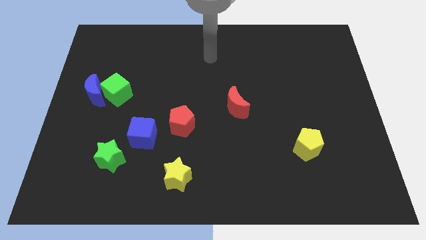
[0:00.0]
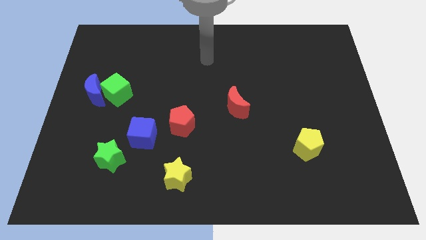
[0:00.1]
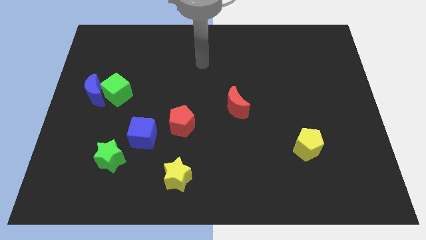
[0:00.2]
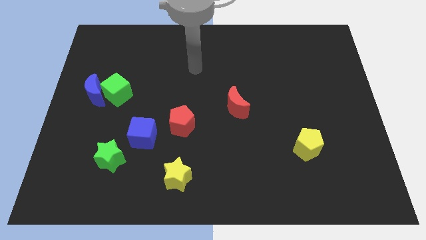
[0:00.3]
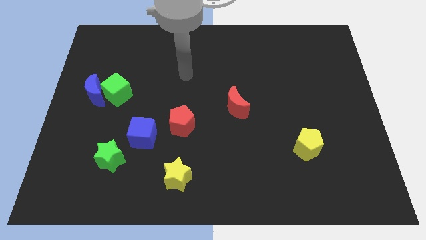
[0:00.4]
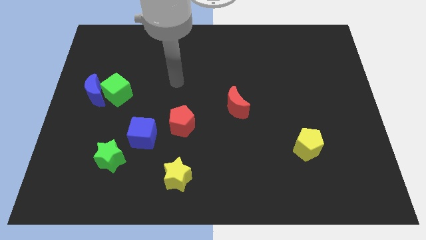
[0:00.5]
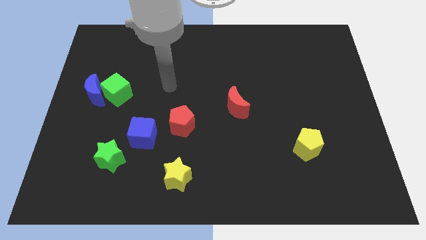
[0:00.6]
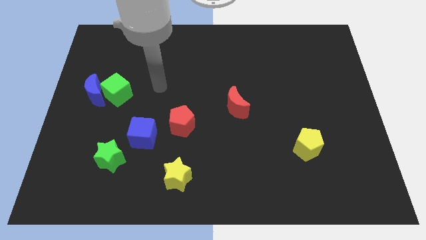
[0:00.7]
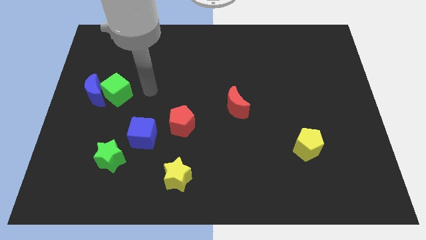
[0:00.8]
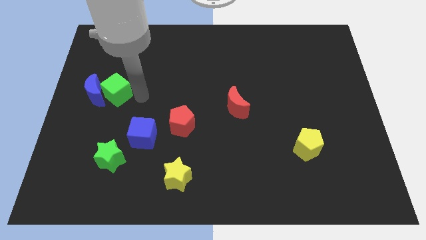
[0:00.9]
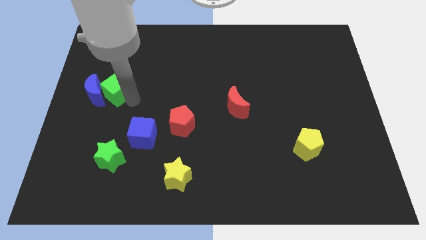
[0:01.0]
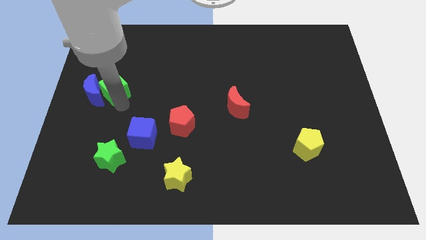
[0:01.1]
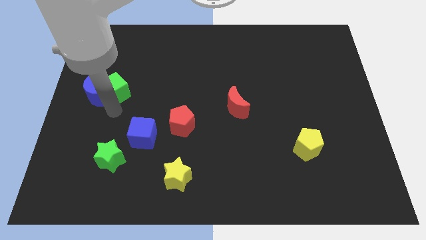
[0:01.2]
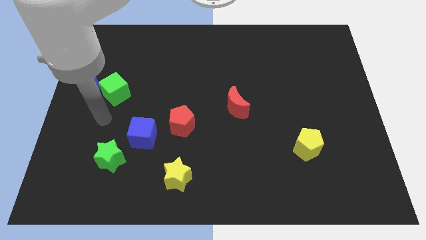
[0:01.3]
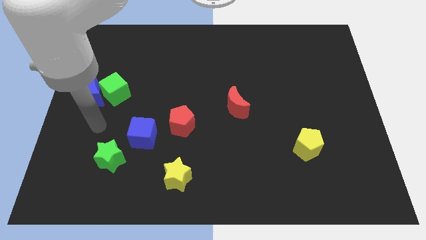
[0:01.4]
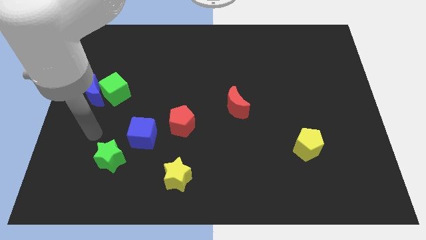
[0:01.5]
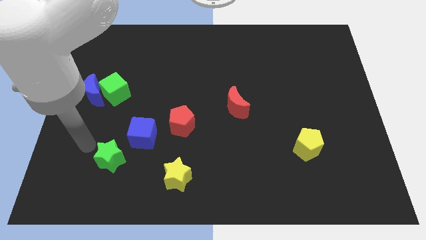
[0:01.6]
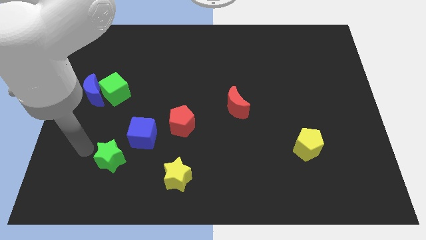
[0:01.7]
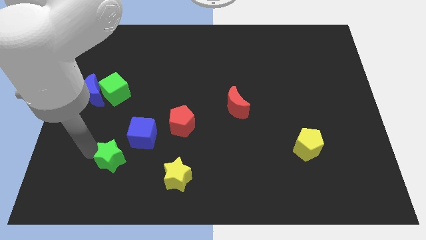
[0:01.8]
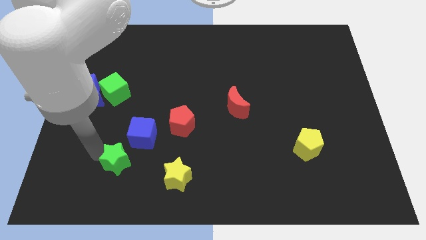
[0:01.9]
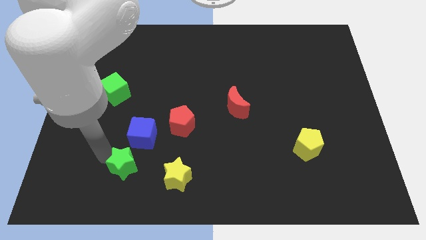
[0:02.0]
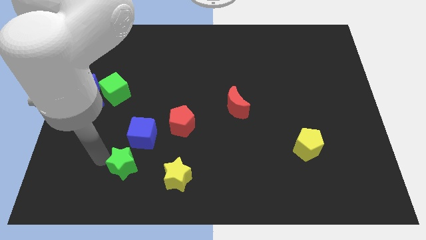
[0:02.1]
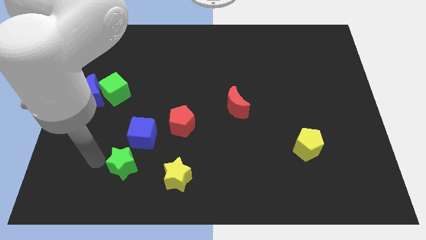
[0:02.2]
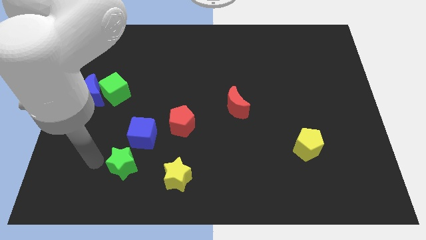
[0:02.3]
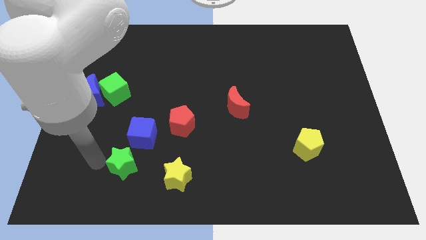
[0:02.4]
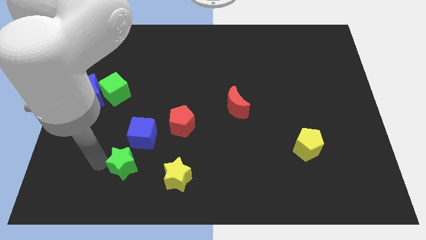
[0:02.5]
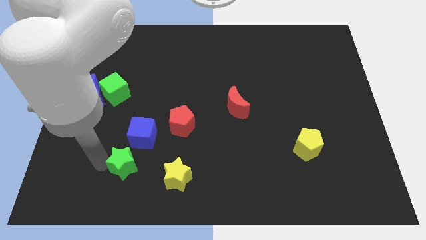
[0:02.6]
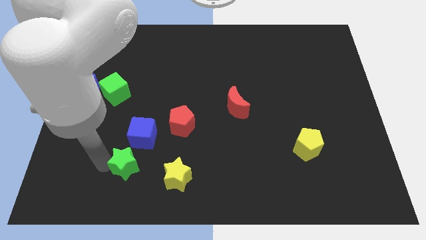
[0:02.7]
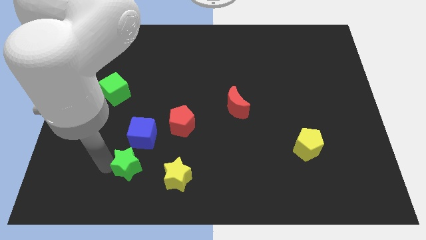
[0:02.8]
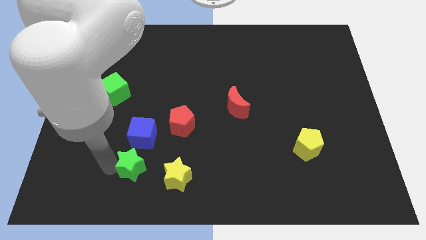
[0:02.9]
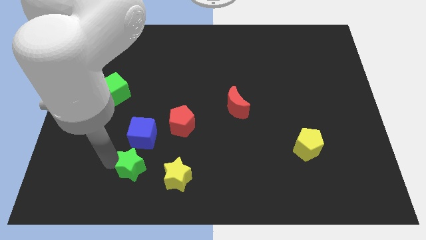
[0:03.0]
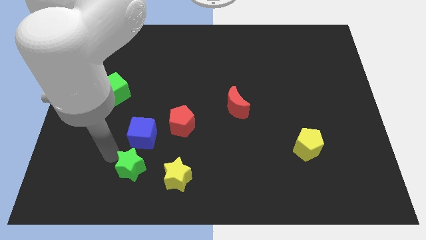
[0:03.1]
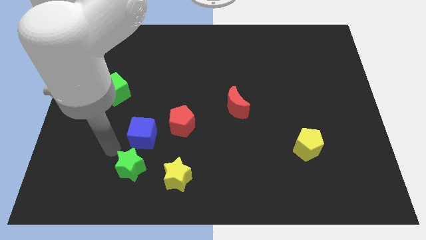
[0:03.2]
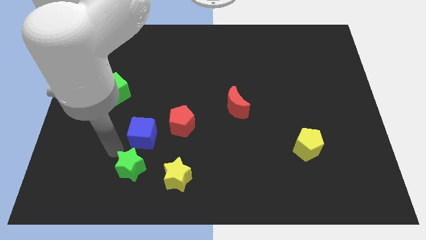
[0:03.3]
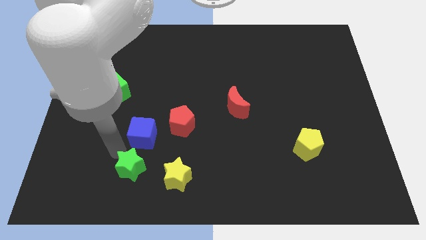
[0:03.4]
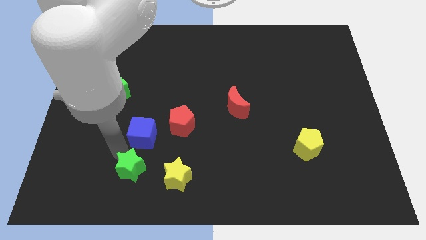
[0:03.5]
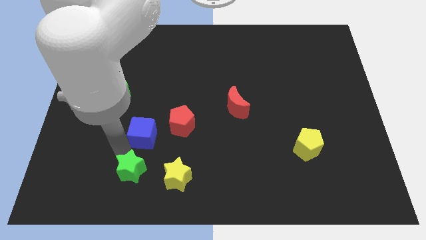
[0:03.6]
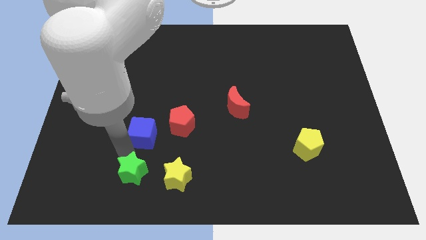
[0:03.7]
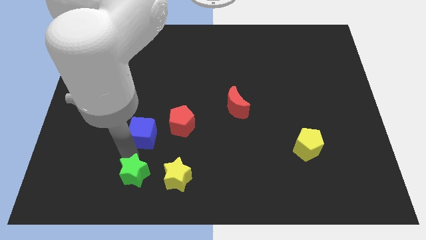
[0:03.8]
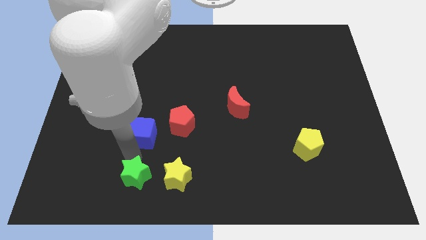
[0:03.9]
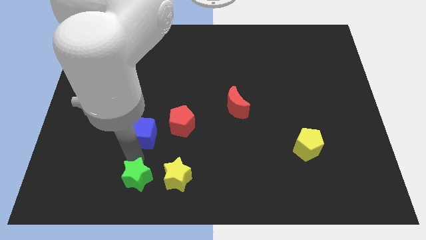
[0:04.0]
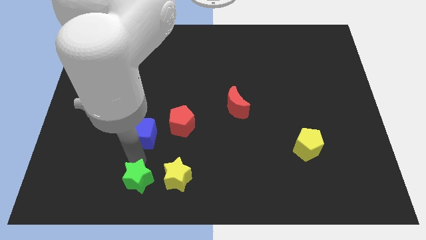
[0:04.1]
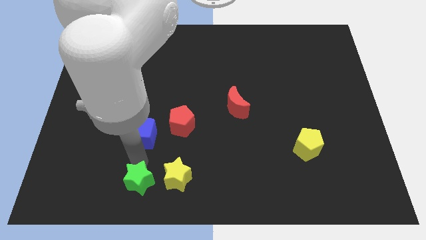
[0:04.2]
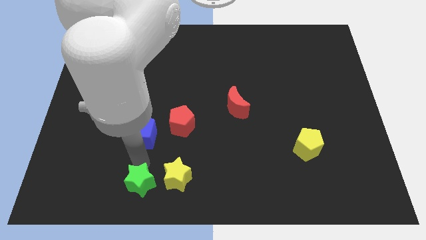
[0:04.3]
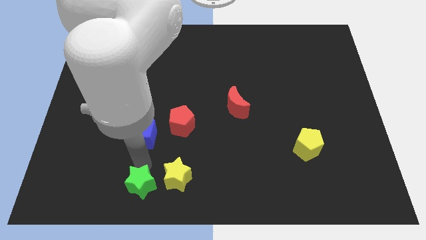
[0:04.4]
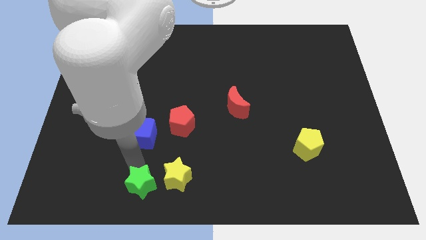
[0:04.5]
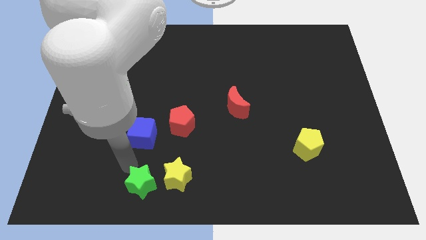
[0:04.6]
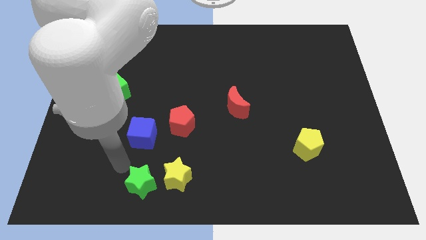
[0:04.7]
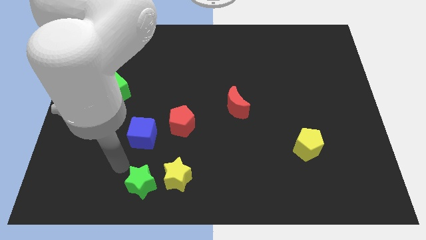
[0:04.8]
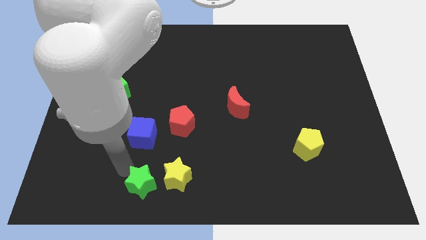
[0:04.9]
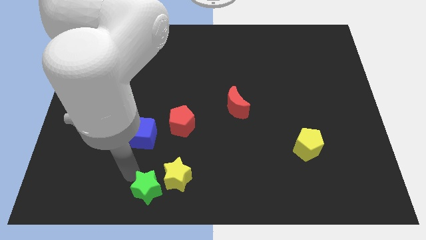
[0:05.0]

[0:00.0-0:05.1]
put the green star to the bottom side
